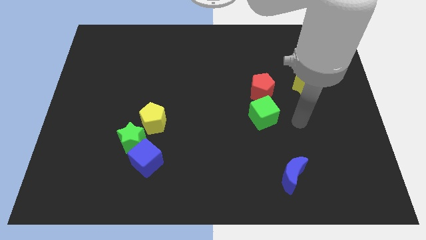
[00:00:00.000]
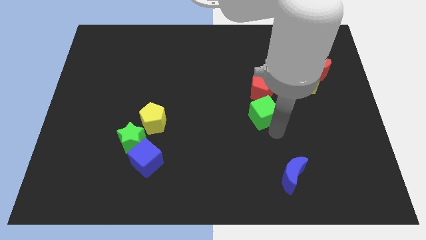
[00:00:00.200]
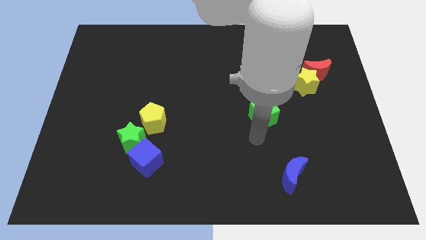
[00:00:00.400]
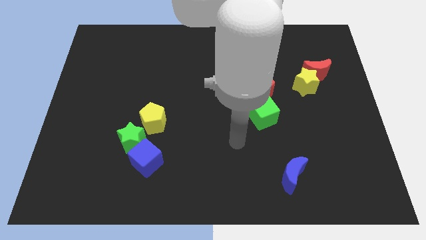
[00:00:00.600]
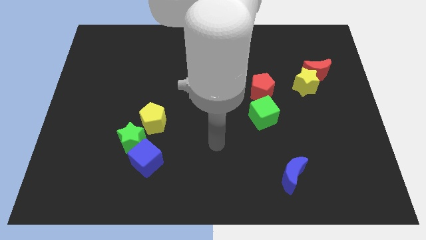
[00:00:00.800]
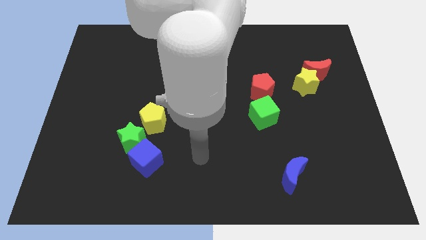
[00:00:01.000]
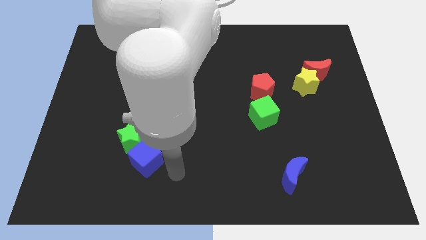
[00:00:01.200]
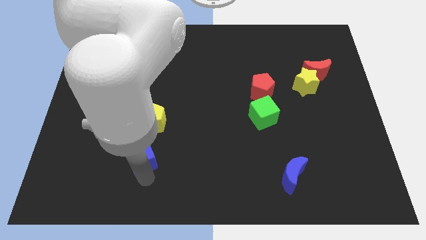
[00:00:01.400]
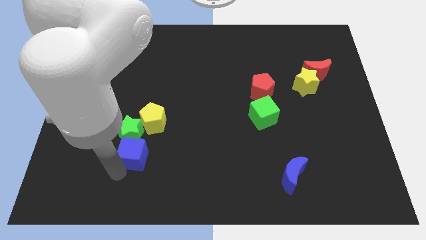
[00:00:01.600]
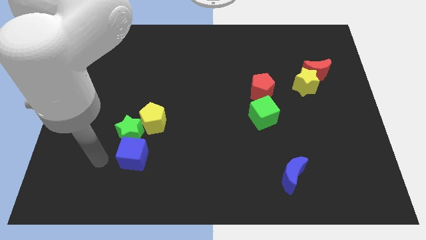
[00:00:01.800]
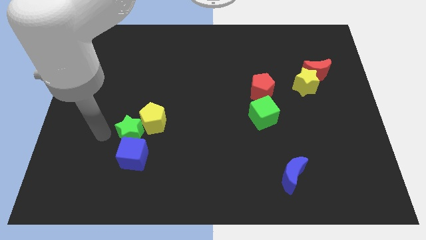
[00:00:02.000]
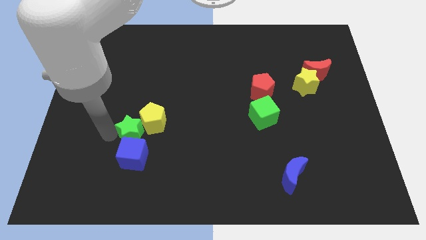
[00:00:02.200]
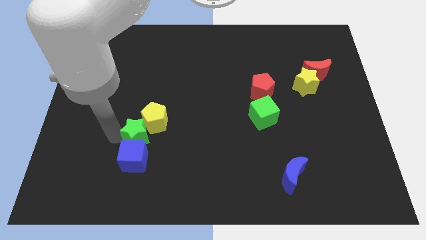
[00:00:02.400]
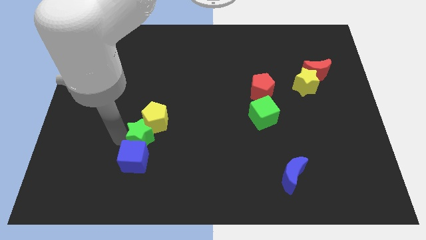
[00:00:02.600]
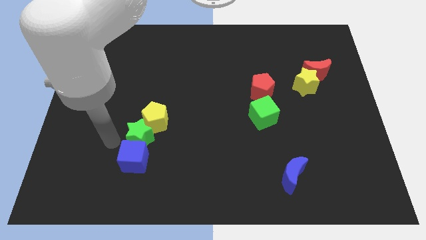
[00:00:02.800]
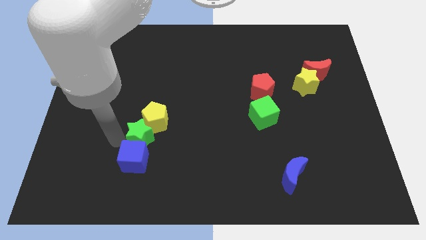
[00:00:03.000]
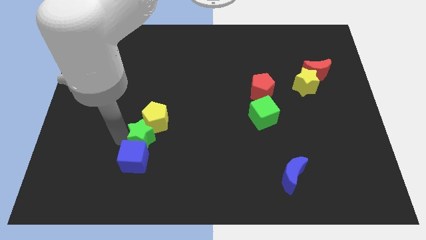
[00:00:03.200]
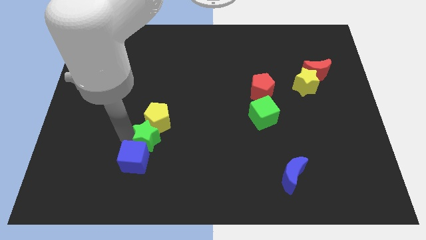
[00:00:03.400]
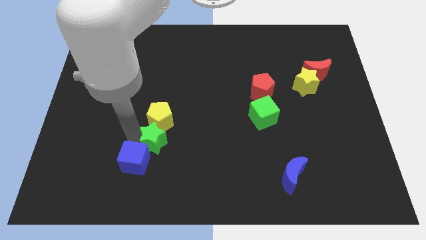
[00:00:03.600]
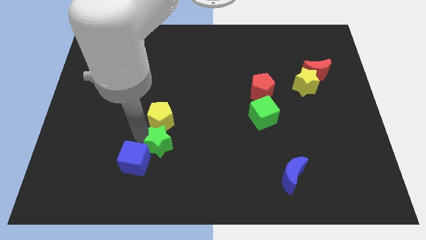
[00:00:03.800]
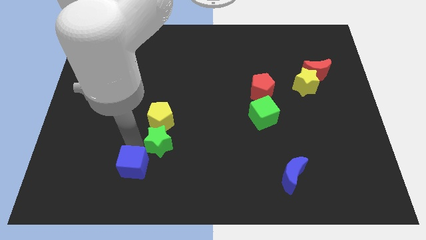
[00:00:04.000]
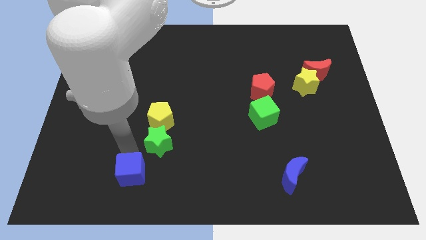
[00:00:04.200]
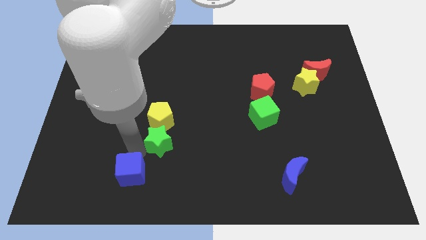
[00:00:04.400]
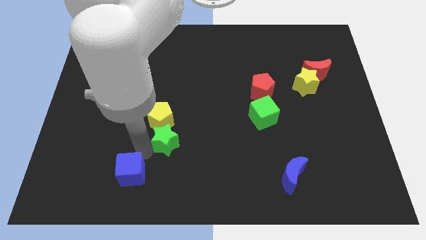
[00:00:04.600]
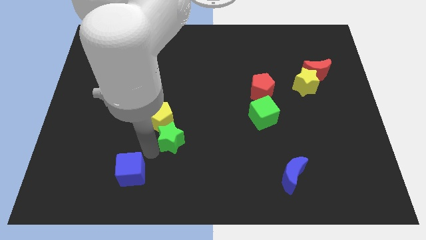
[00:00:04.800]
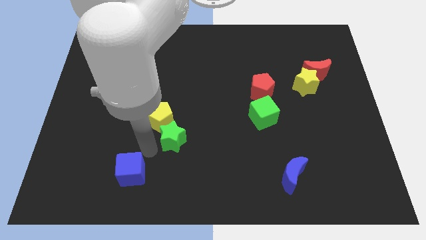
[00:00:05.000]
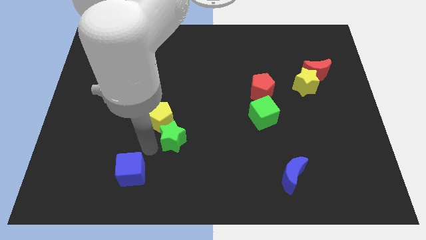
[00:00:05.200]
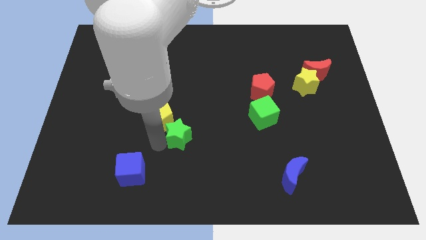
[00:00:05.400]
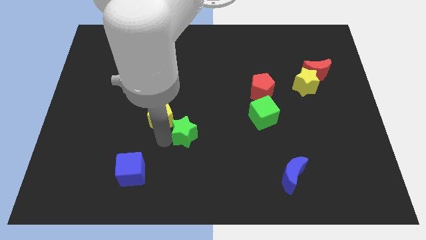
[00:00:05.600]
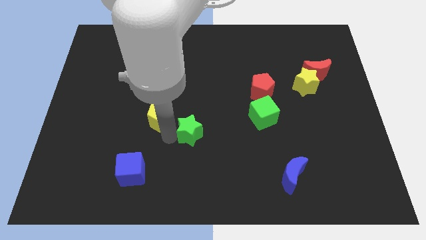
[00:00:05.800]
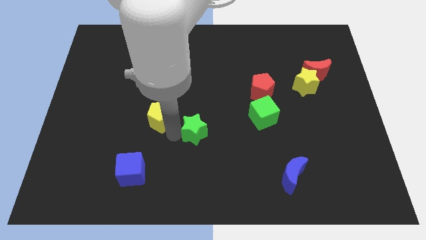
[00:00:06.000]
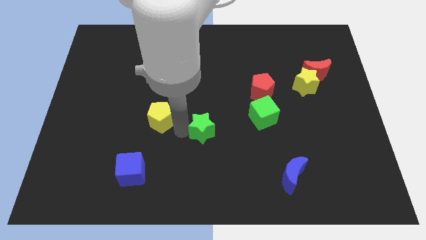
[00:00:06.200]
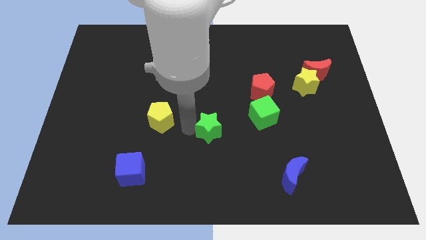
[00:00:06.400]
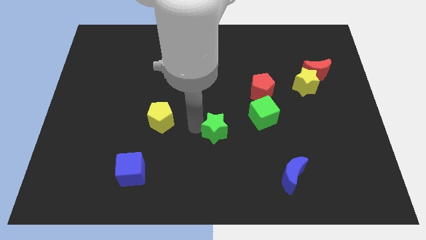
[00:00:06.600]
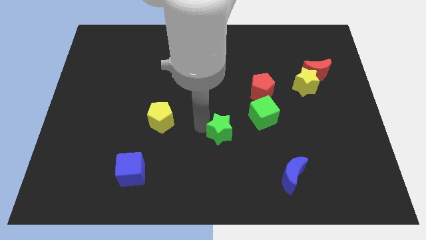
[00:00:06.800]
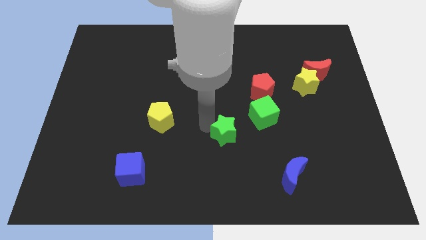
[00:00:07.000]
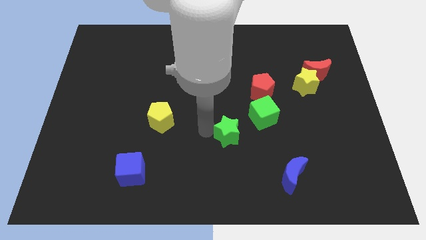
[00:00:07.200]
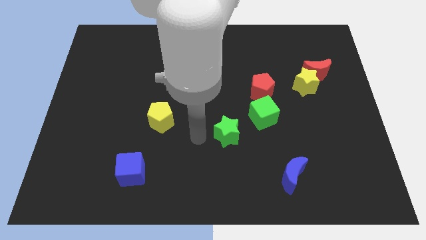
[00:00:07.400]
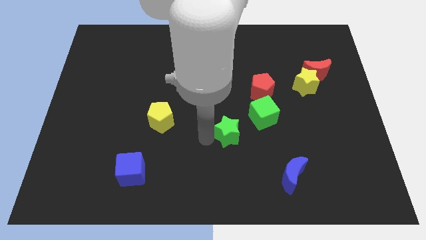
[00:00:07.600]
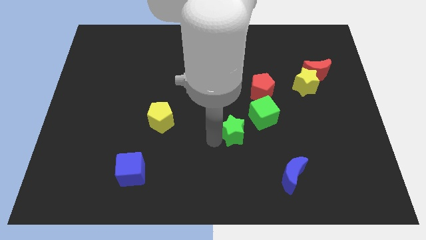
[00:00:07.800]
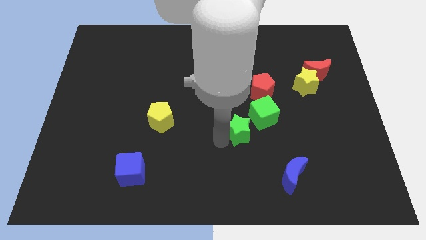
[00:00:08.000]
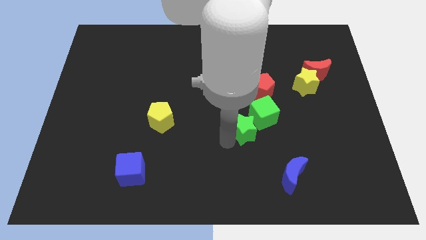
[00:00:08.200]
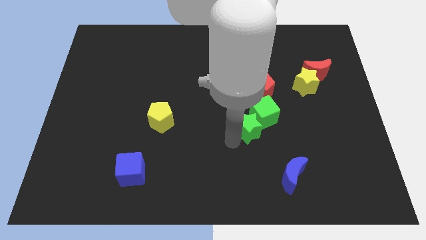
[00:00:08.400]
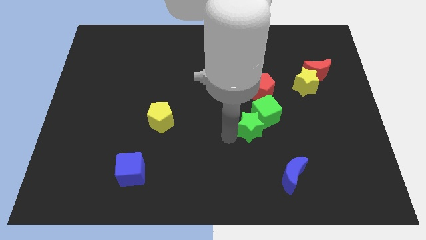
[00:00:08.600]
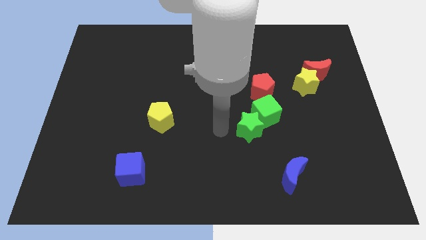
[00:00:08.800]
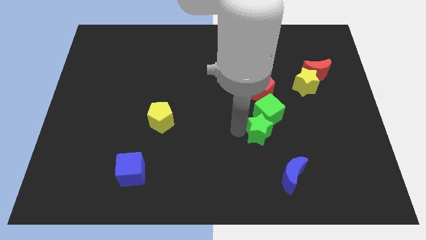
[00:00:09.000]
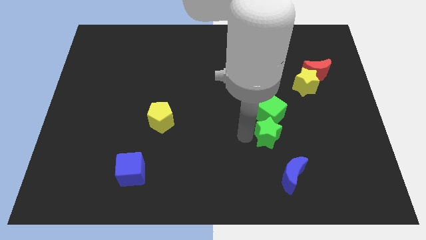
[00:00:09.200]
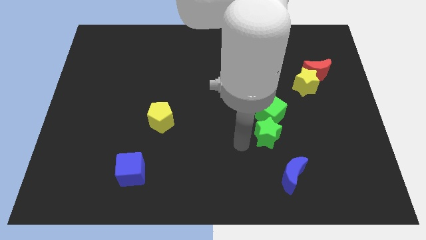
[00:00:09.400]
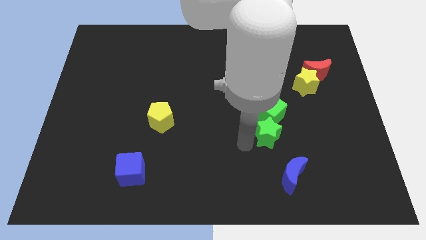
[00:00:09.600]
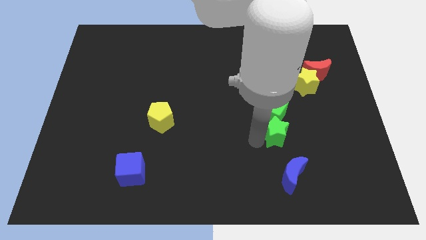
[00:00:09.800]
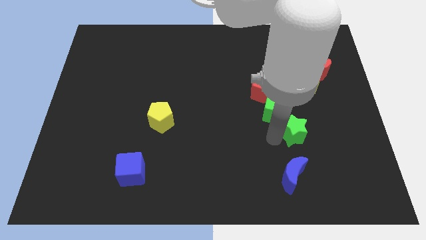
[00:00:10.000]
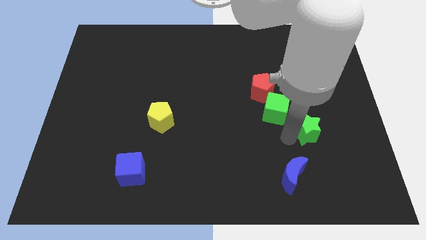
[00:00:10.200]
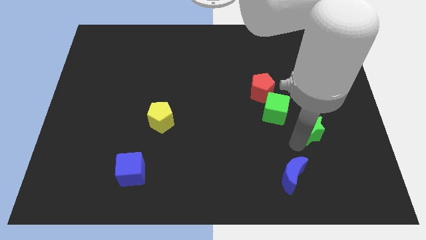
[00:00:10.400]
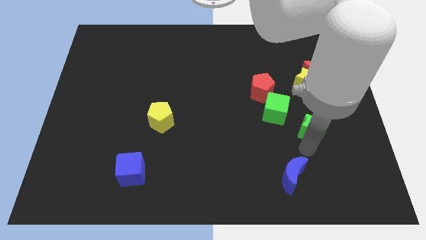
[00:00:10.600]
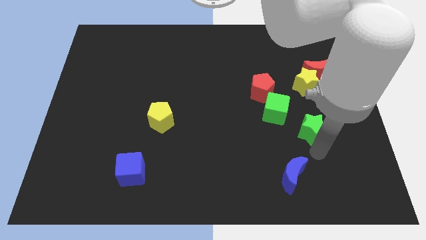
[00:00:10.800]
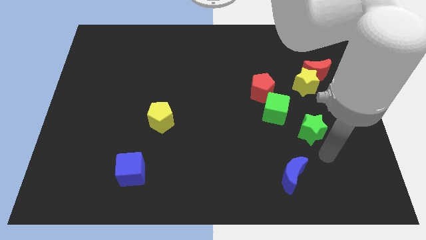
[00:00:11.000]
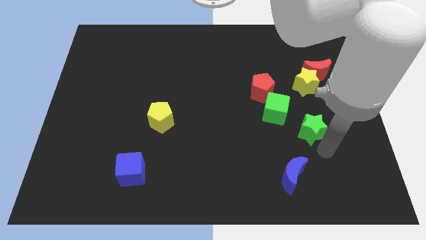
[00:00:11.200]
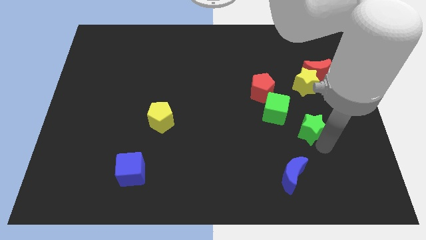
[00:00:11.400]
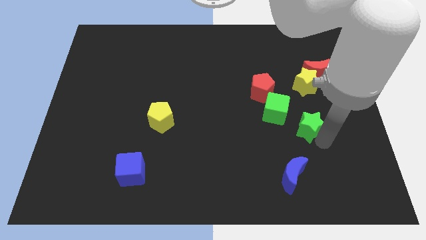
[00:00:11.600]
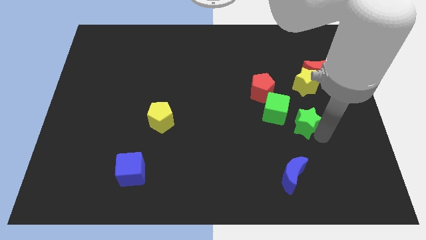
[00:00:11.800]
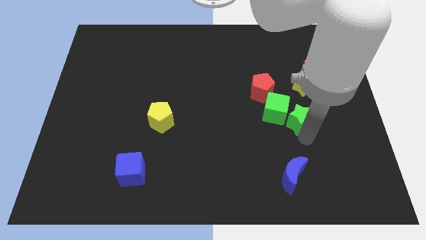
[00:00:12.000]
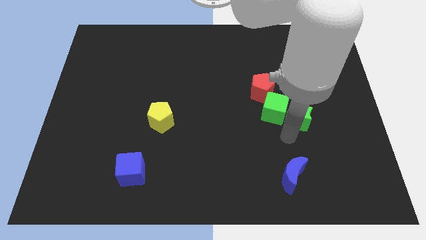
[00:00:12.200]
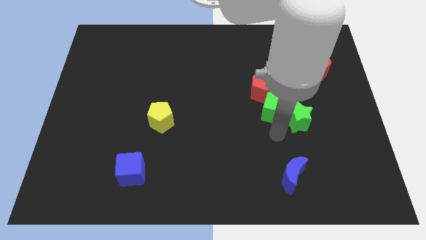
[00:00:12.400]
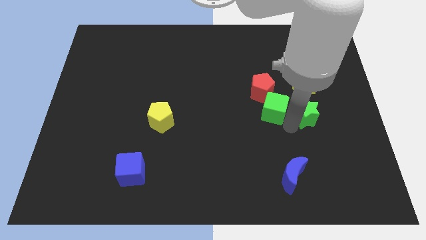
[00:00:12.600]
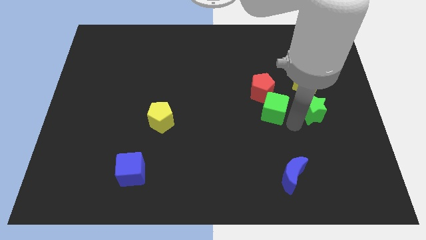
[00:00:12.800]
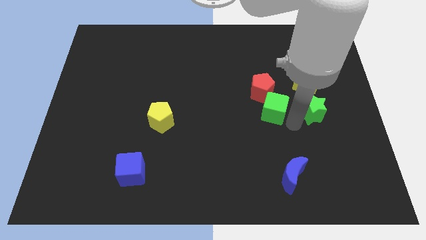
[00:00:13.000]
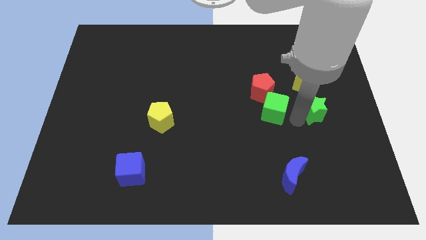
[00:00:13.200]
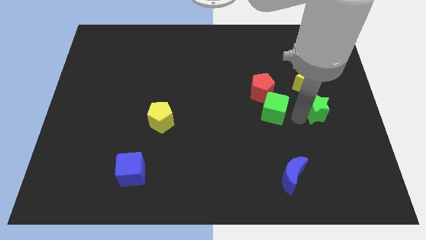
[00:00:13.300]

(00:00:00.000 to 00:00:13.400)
put the green star diagonally down and to the right of the yellow star

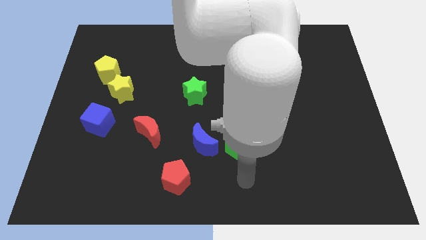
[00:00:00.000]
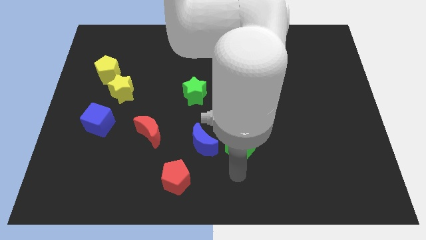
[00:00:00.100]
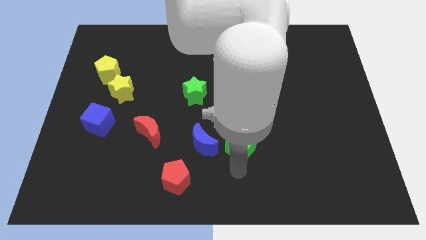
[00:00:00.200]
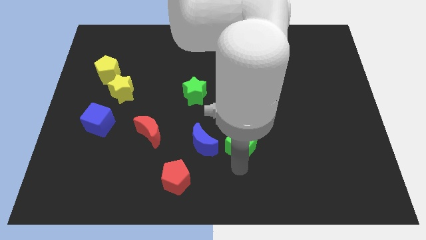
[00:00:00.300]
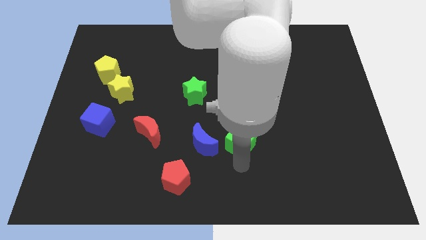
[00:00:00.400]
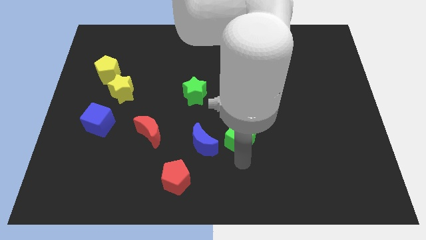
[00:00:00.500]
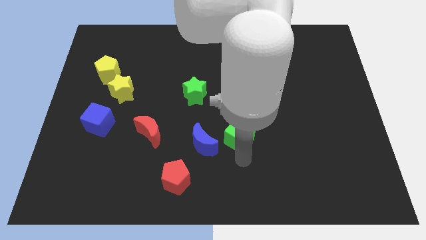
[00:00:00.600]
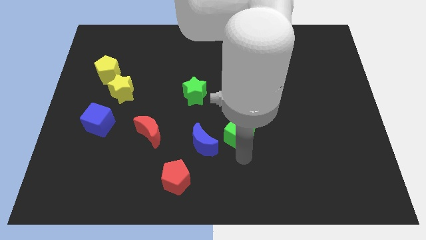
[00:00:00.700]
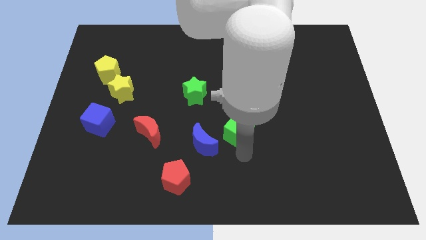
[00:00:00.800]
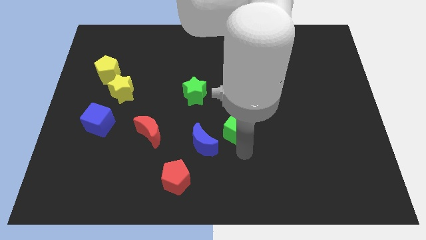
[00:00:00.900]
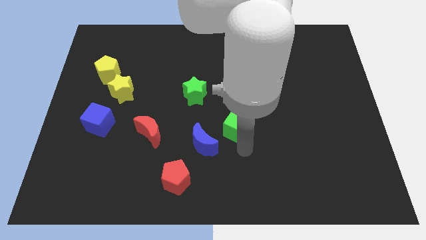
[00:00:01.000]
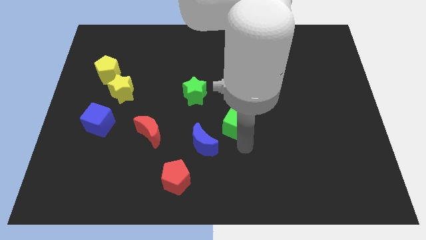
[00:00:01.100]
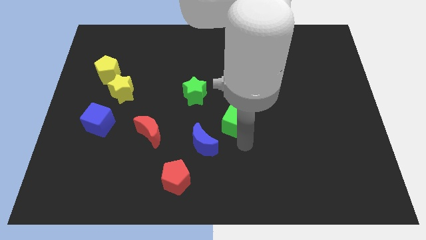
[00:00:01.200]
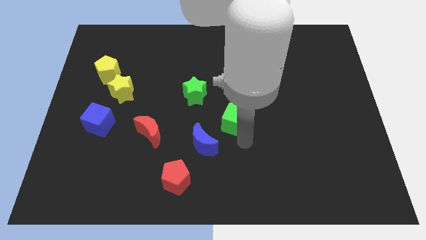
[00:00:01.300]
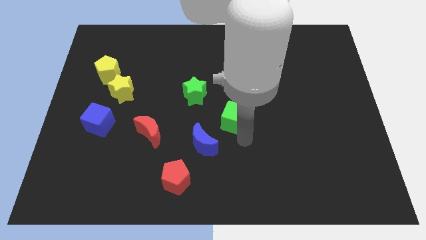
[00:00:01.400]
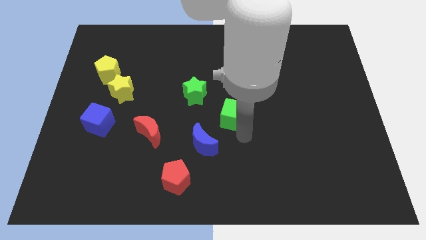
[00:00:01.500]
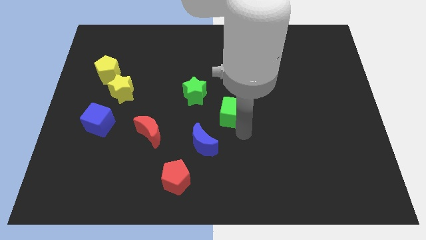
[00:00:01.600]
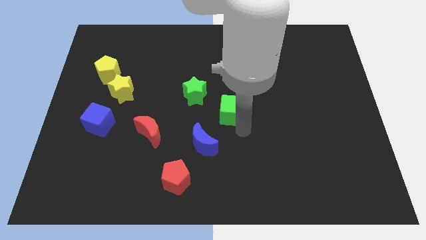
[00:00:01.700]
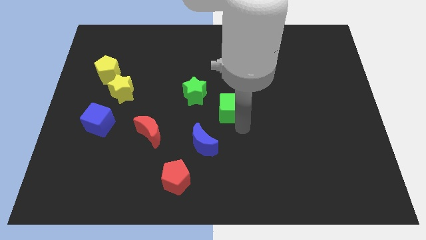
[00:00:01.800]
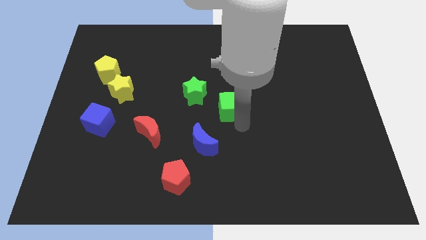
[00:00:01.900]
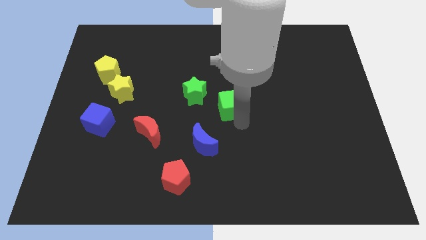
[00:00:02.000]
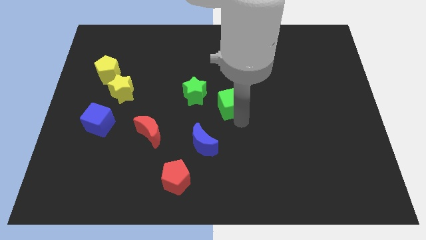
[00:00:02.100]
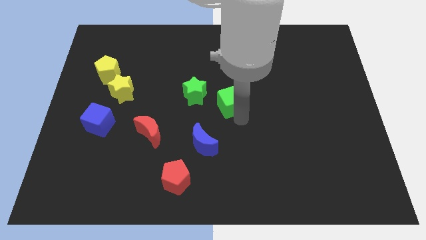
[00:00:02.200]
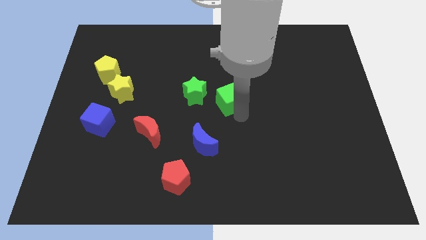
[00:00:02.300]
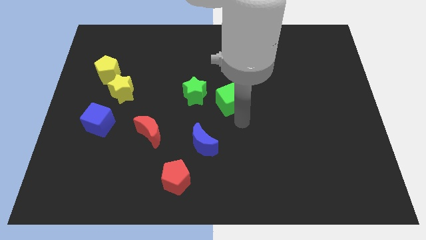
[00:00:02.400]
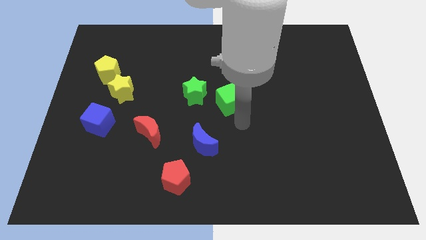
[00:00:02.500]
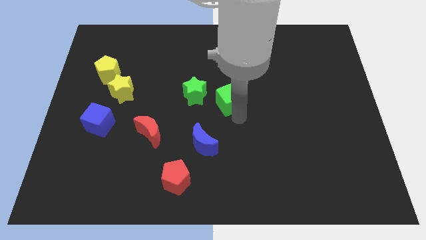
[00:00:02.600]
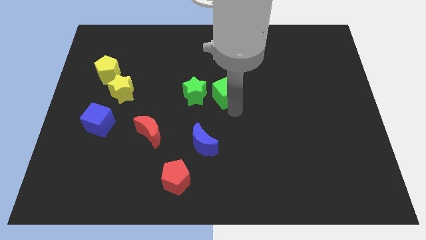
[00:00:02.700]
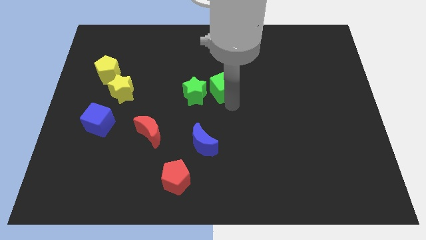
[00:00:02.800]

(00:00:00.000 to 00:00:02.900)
slide the green cube to the top right side of the green star
